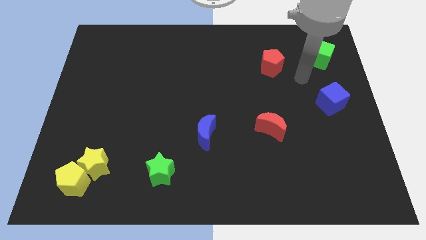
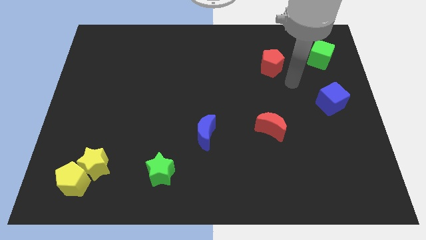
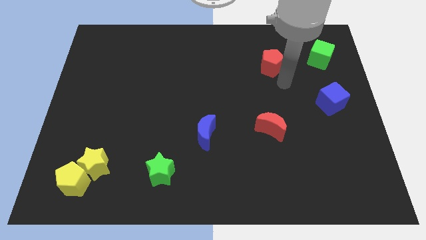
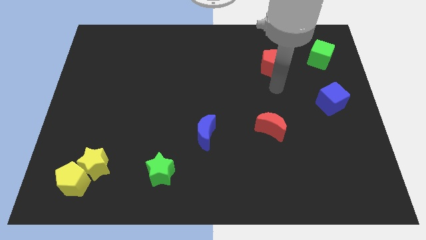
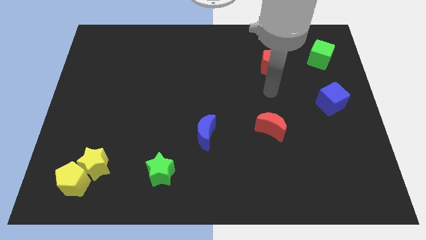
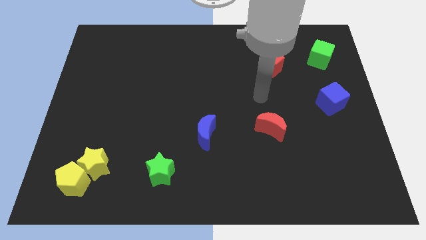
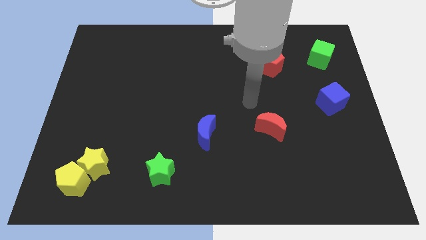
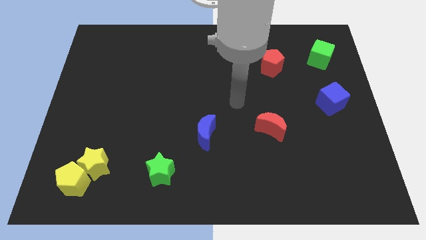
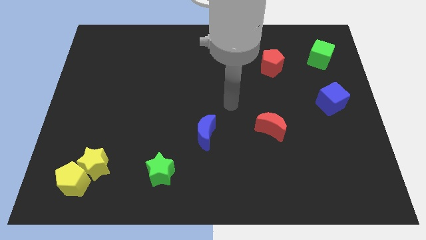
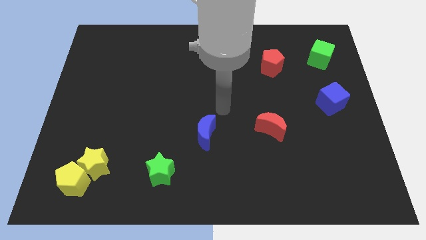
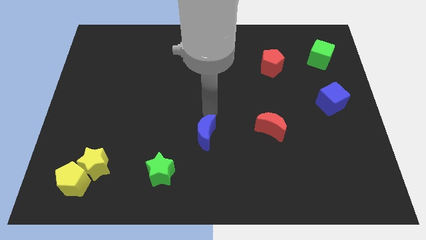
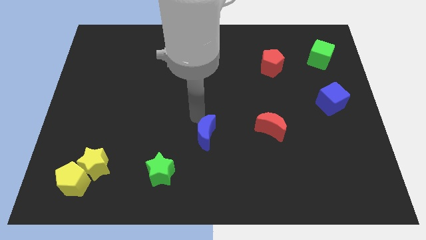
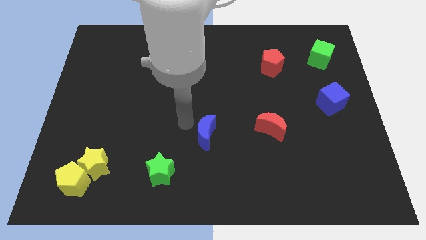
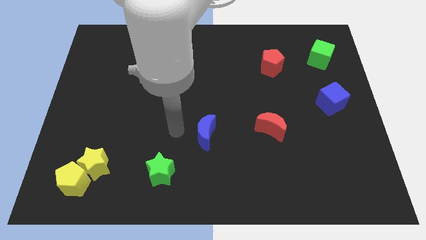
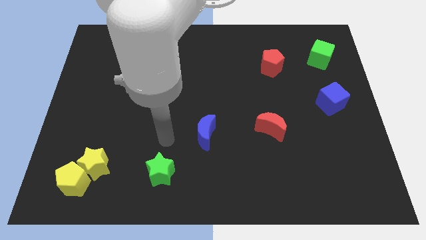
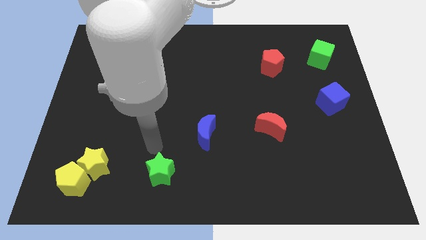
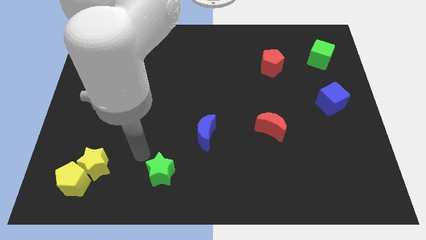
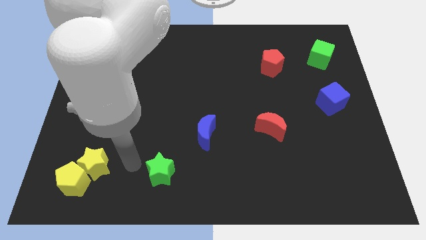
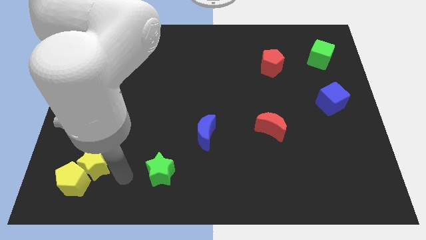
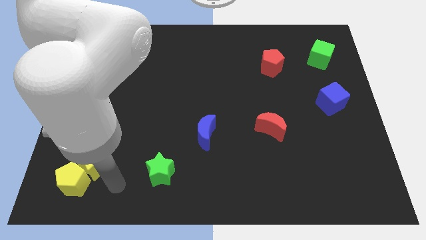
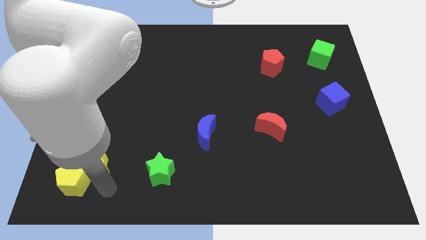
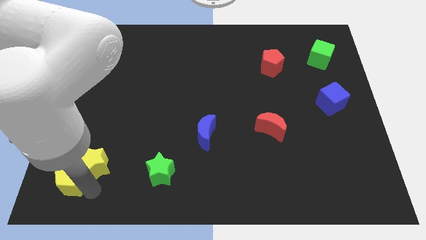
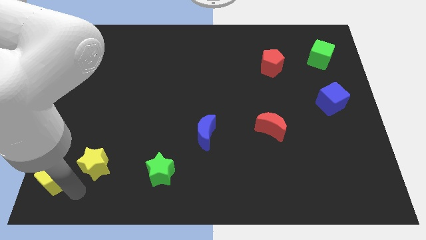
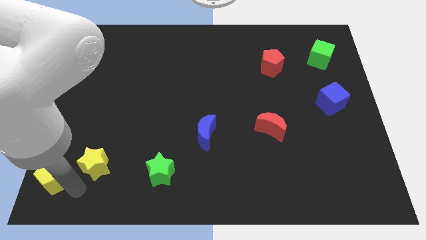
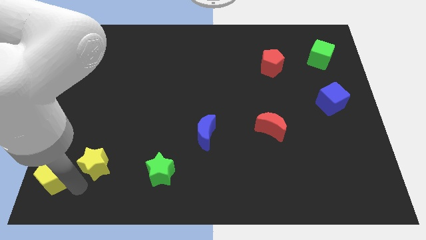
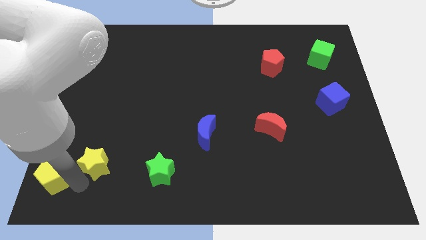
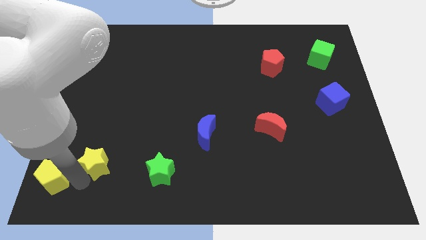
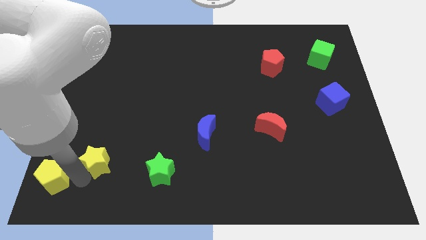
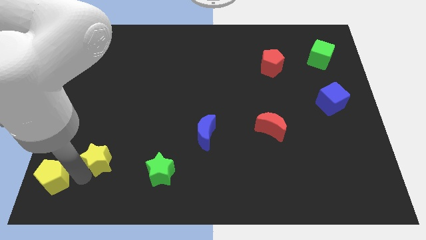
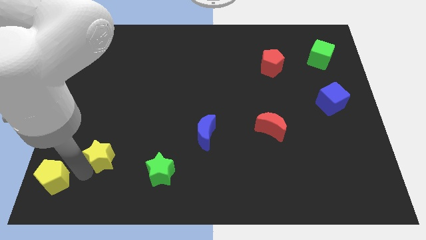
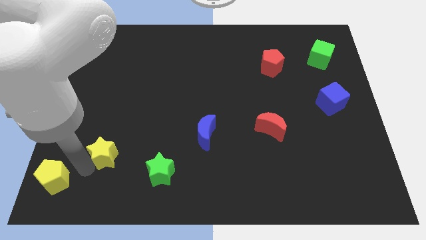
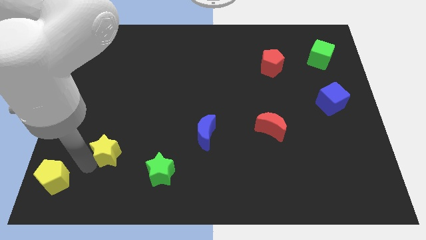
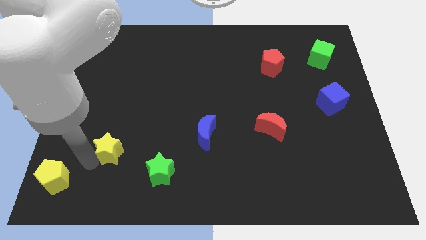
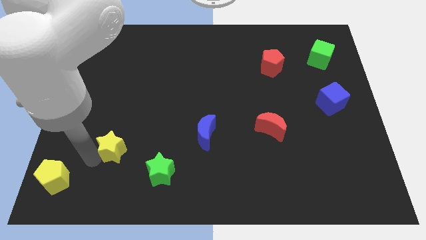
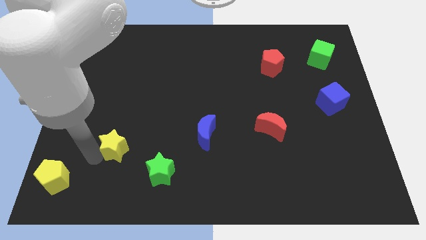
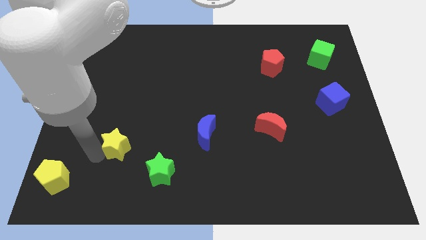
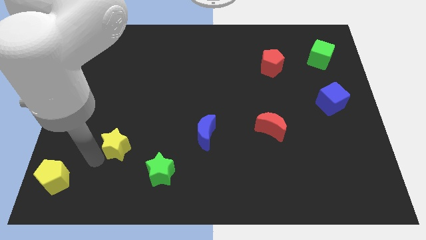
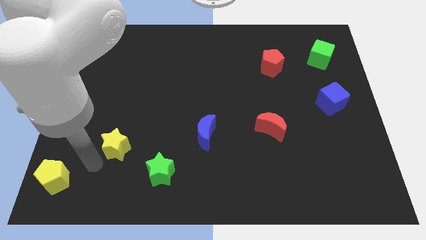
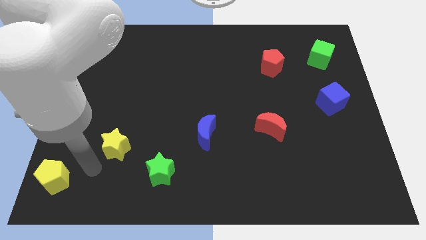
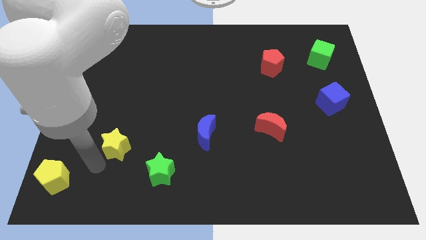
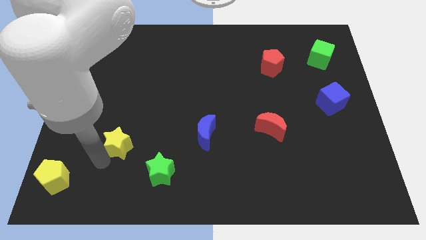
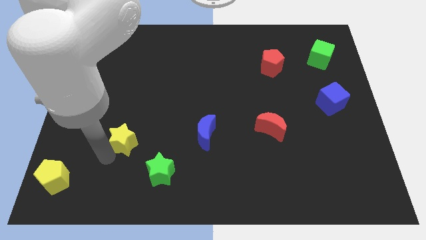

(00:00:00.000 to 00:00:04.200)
slightly push the yellow star upwards and then to the right

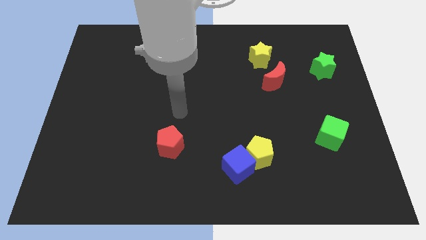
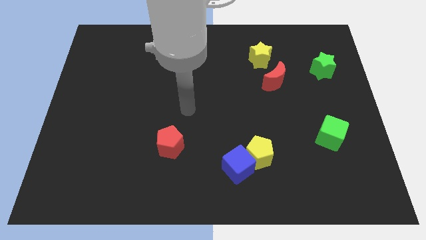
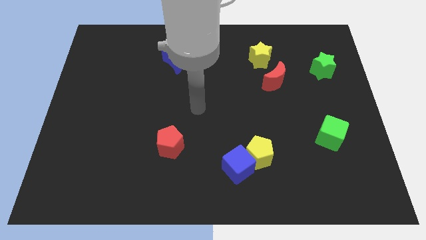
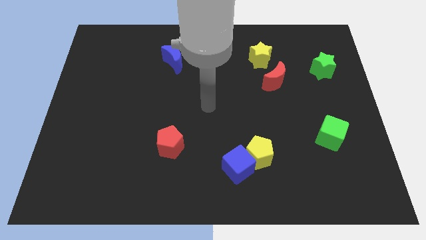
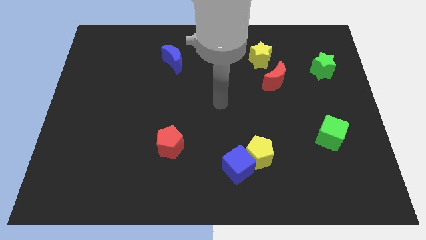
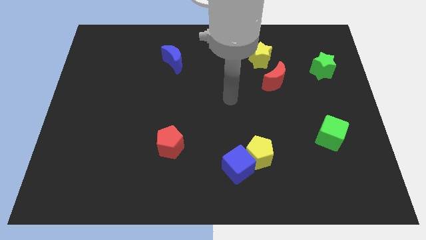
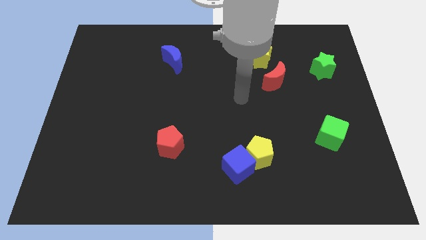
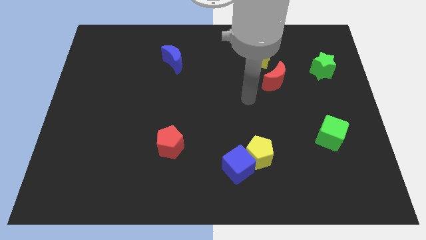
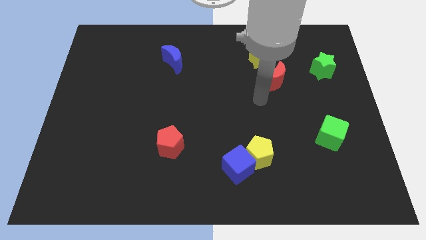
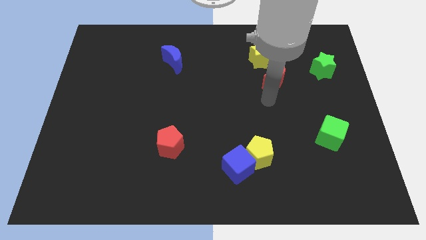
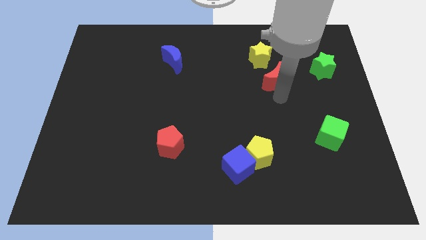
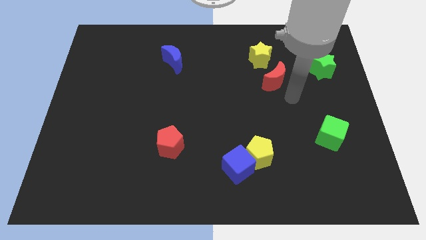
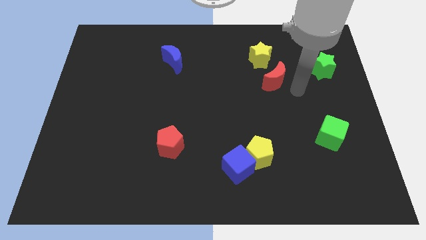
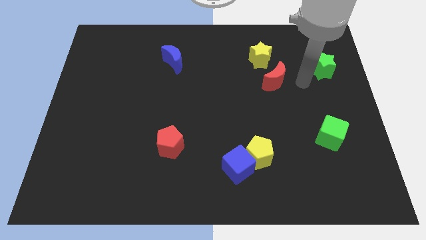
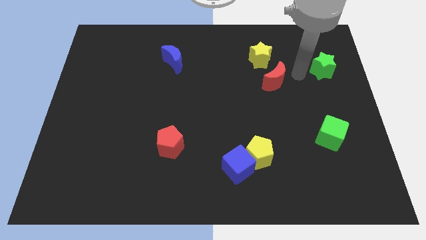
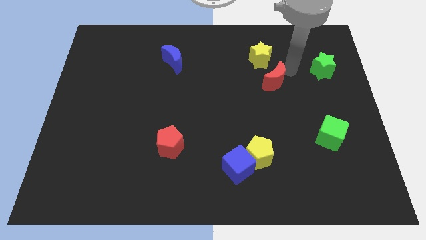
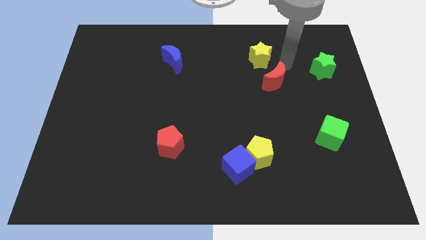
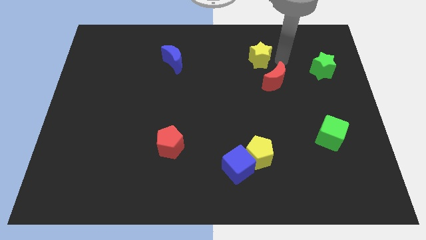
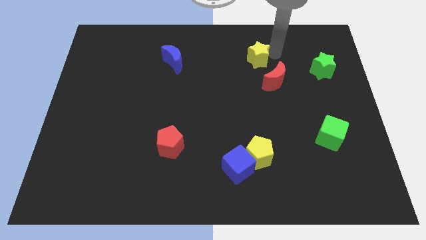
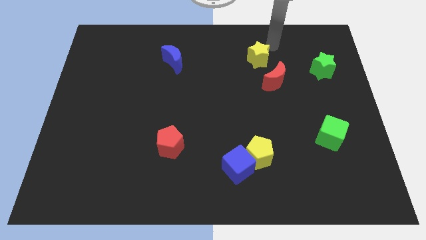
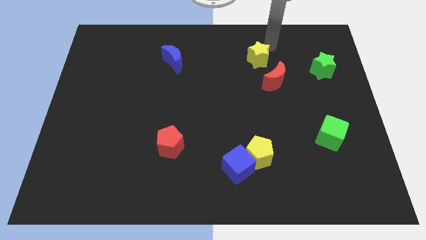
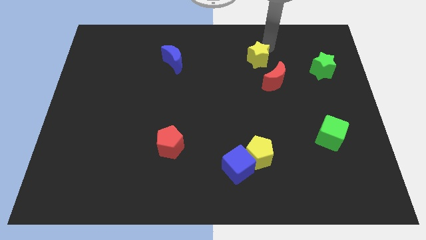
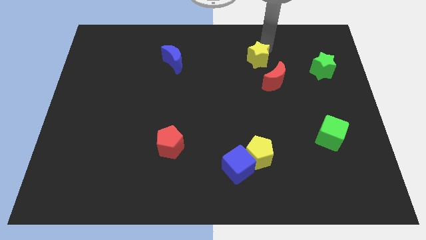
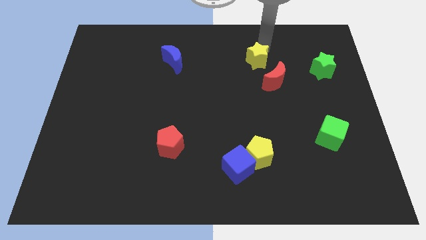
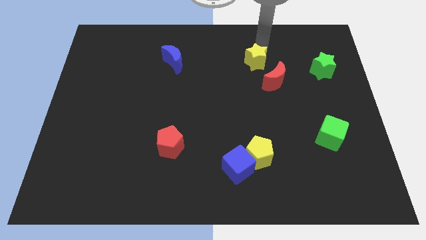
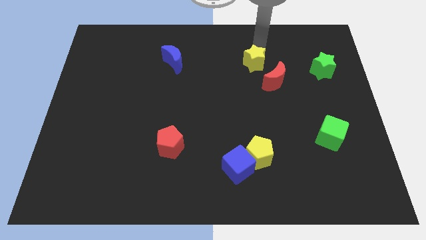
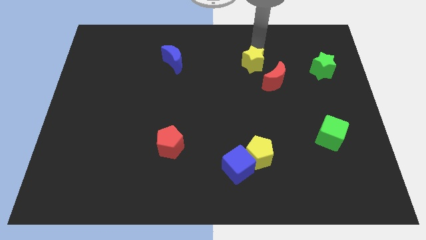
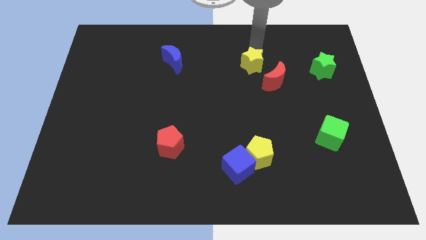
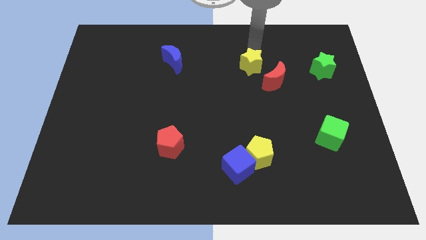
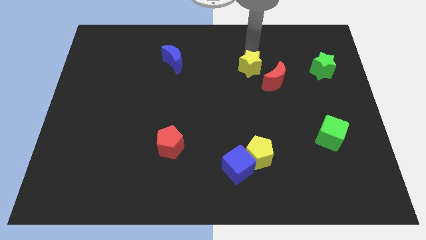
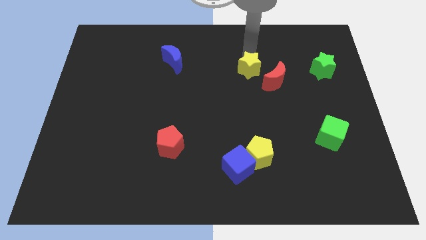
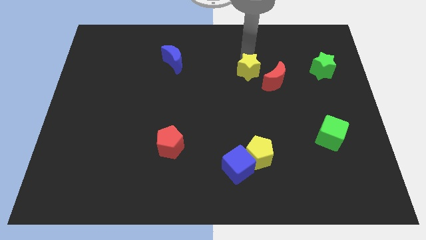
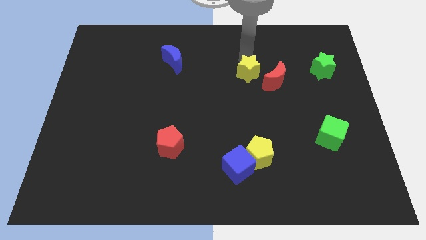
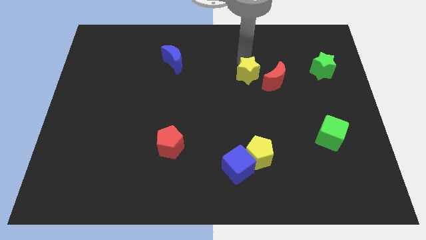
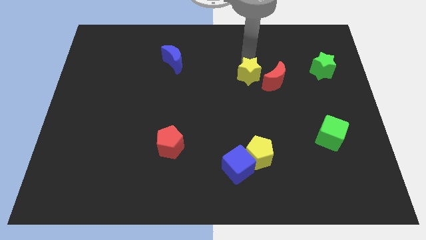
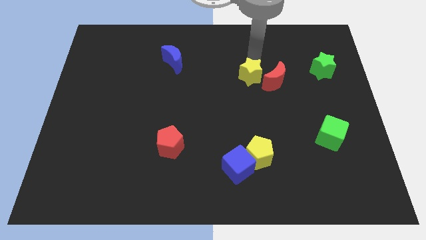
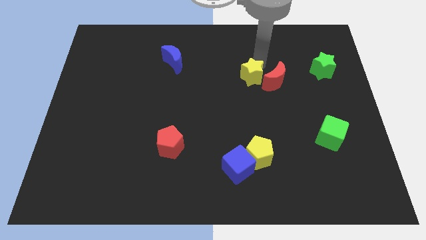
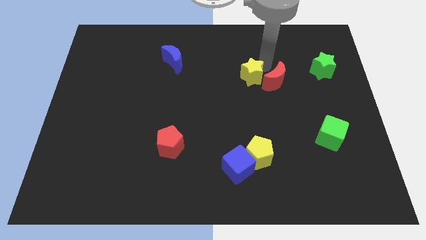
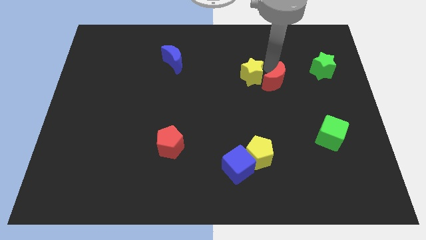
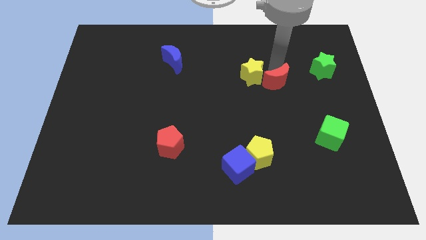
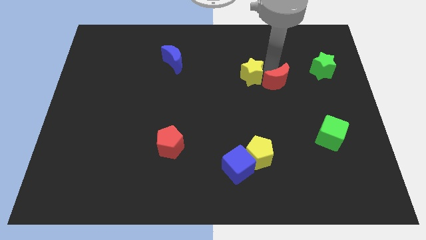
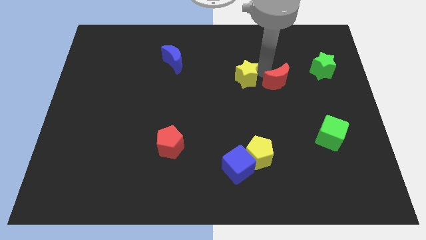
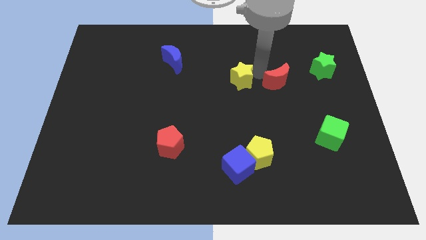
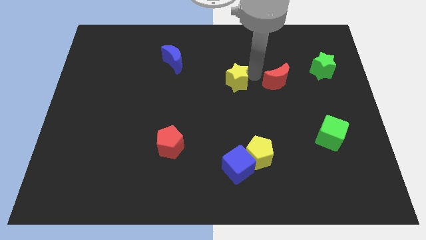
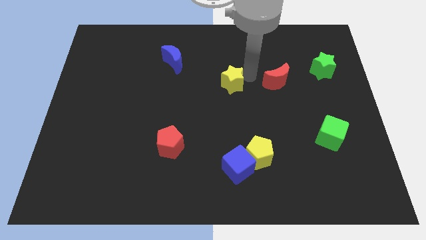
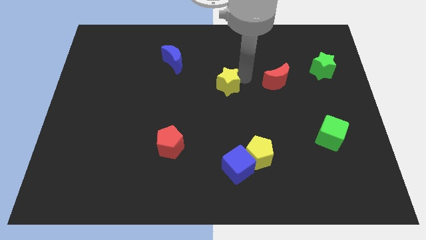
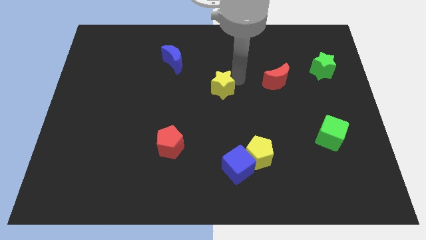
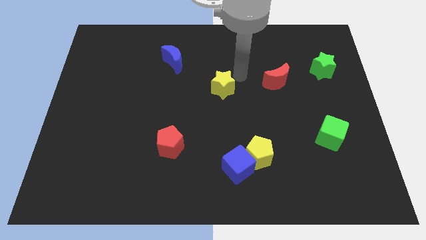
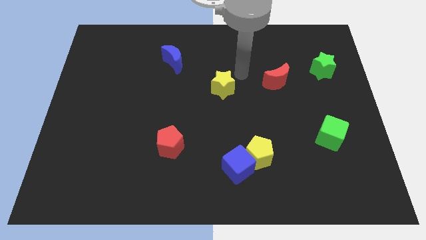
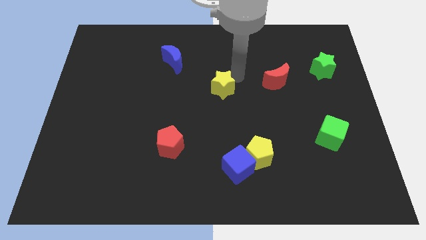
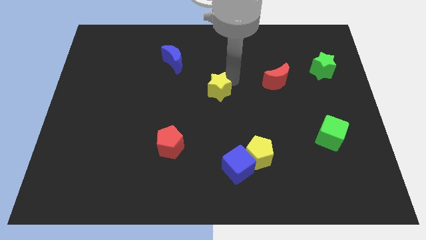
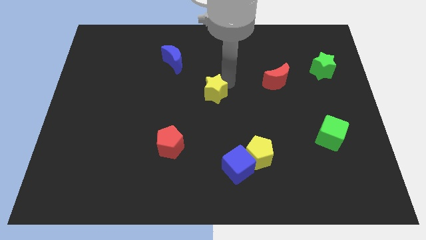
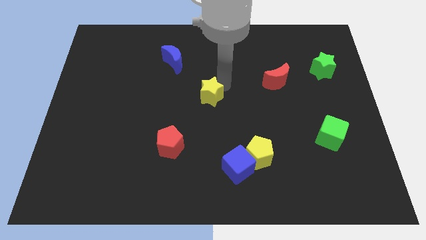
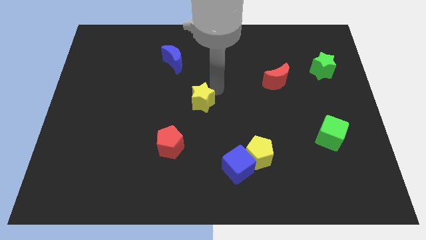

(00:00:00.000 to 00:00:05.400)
push the yellow star down and left diagonally
